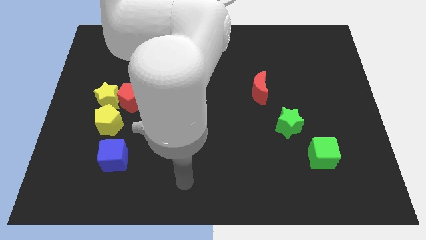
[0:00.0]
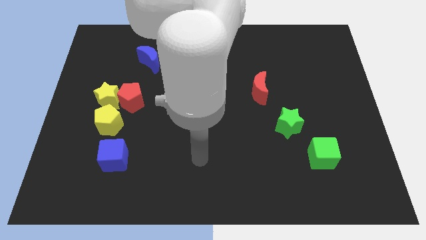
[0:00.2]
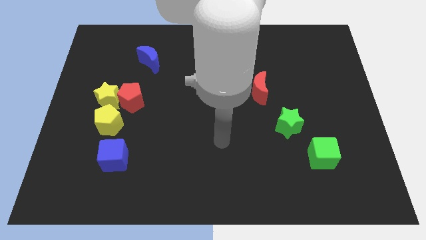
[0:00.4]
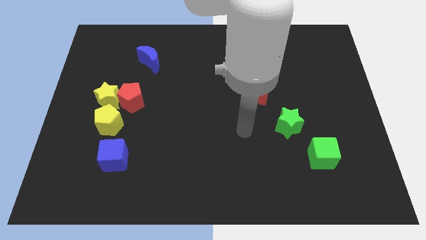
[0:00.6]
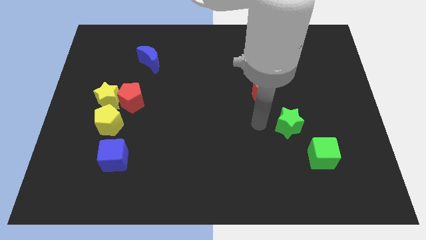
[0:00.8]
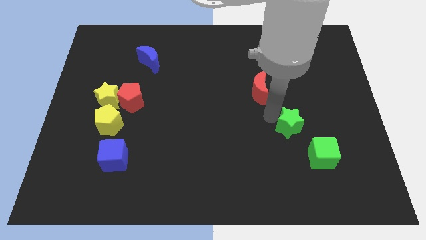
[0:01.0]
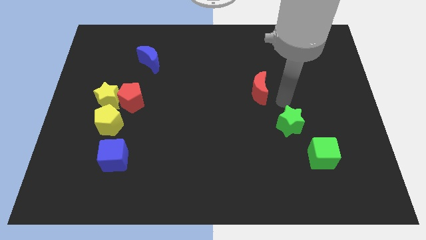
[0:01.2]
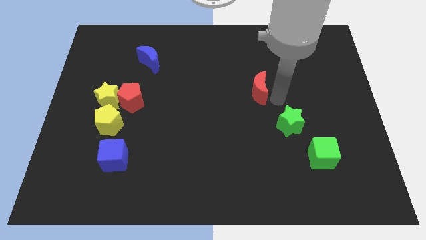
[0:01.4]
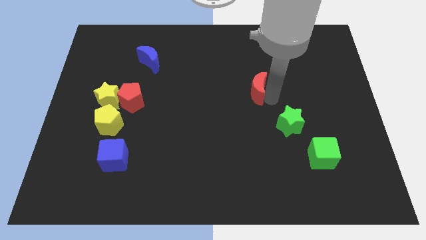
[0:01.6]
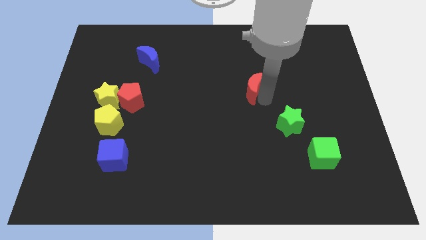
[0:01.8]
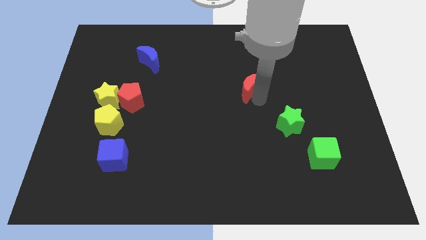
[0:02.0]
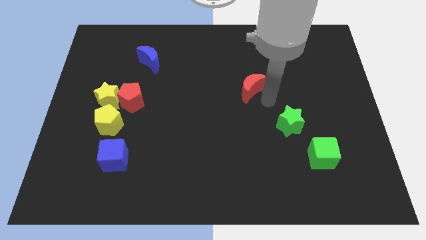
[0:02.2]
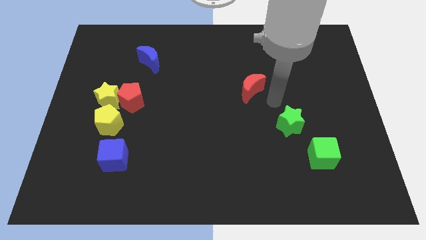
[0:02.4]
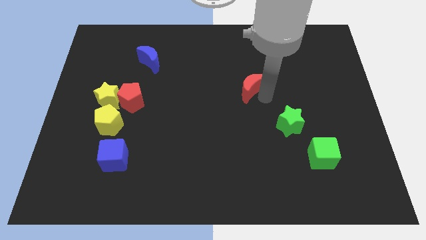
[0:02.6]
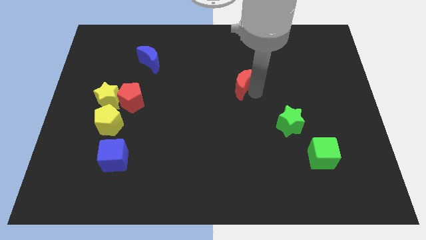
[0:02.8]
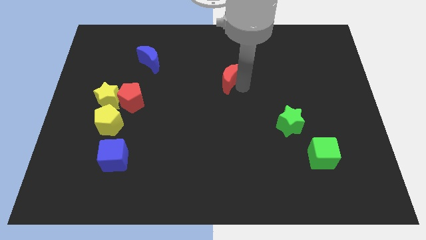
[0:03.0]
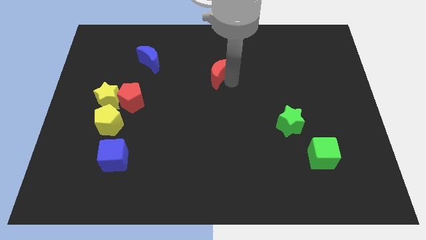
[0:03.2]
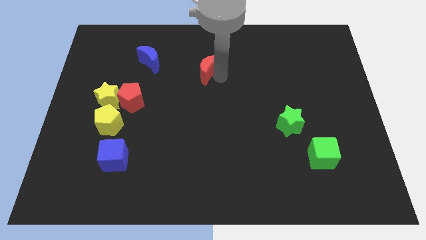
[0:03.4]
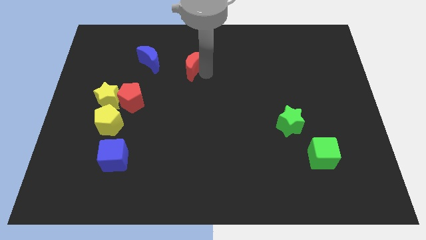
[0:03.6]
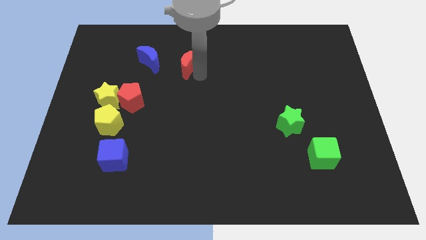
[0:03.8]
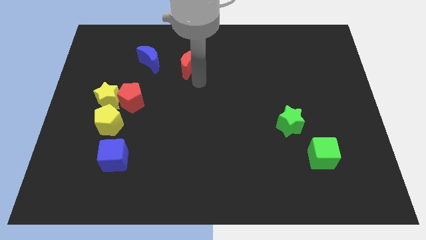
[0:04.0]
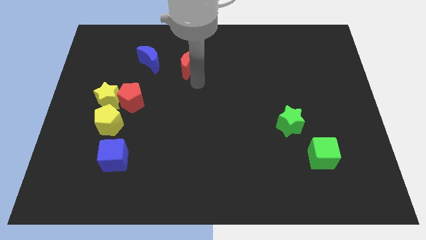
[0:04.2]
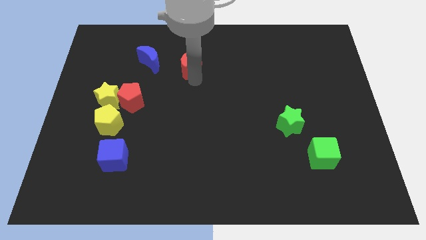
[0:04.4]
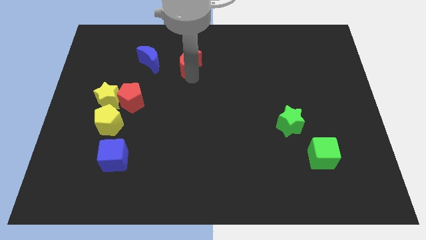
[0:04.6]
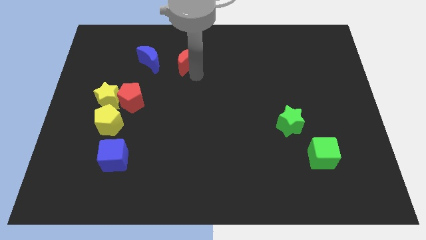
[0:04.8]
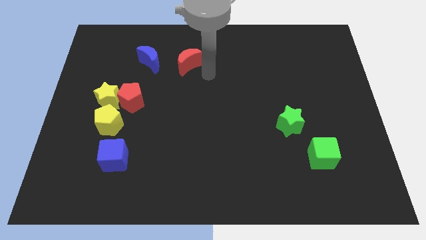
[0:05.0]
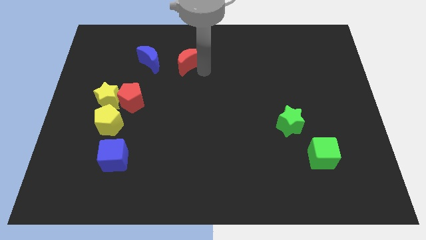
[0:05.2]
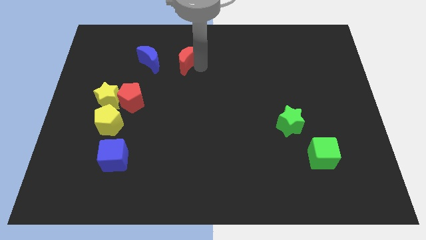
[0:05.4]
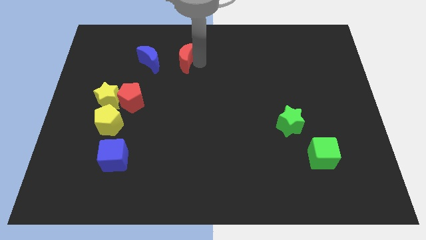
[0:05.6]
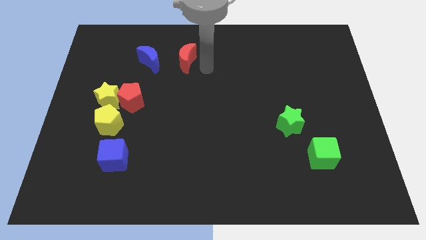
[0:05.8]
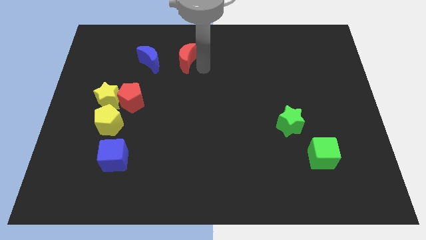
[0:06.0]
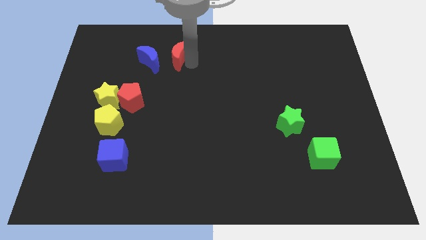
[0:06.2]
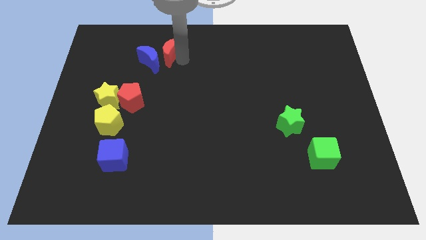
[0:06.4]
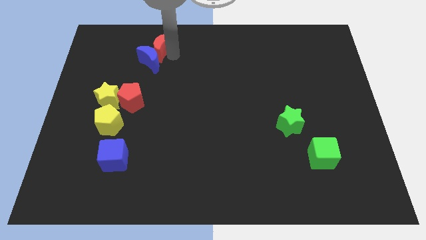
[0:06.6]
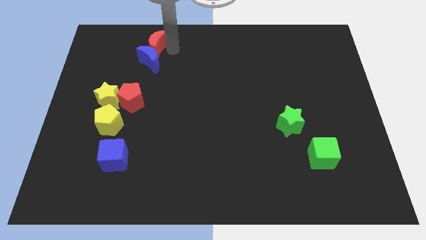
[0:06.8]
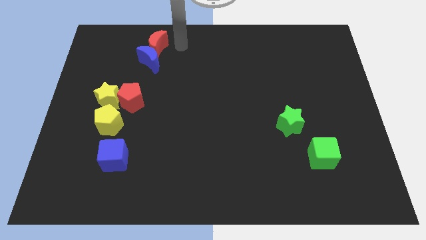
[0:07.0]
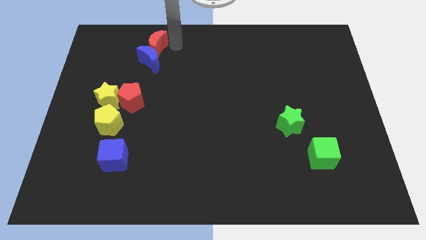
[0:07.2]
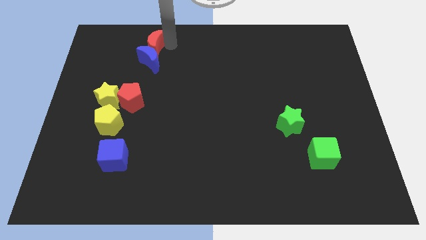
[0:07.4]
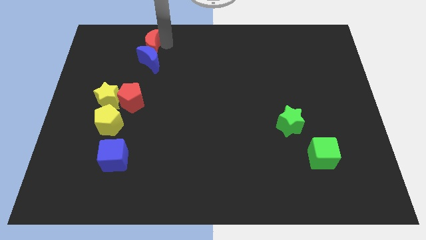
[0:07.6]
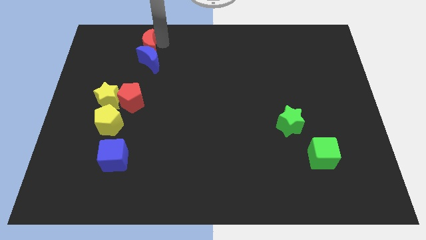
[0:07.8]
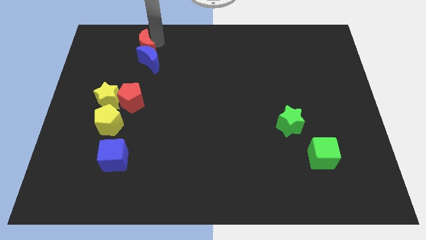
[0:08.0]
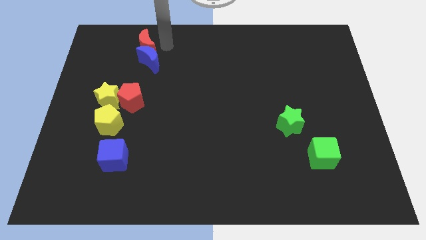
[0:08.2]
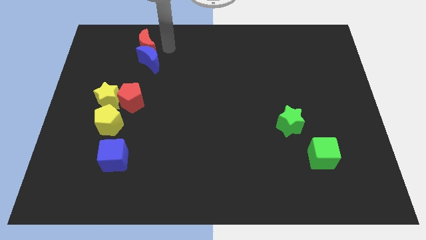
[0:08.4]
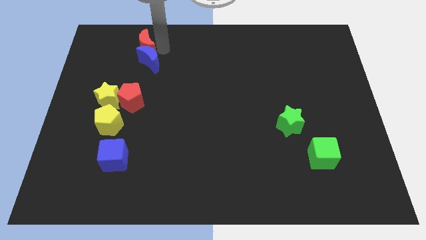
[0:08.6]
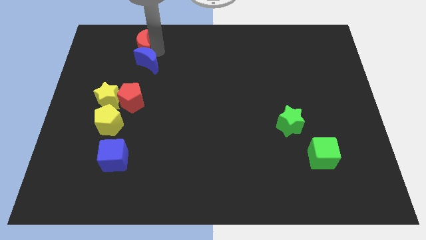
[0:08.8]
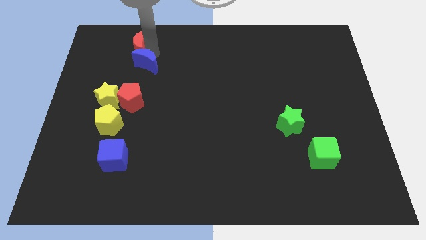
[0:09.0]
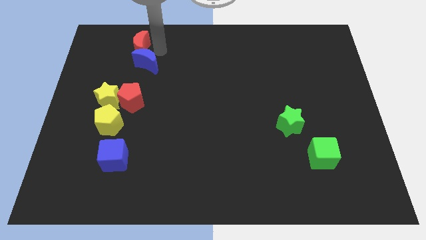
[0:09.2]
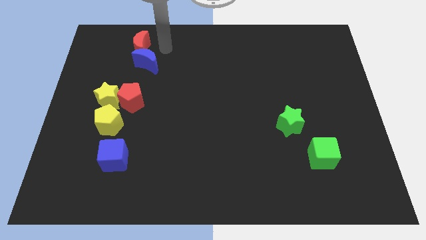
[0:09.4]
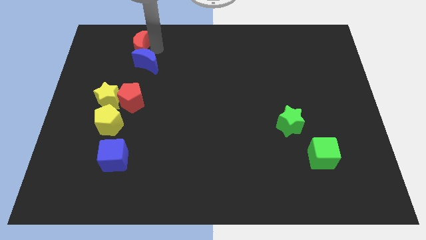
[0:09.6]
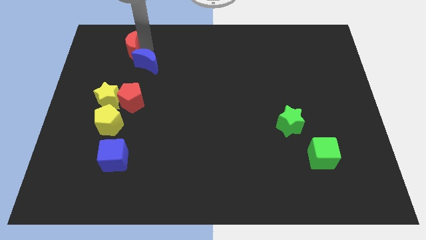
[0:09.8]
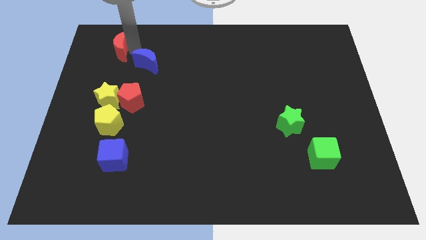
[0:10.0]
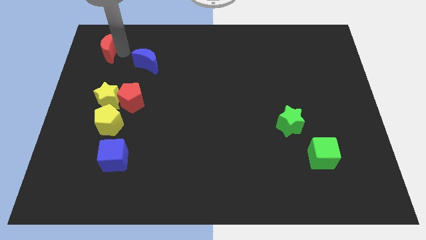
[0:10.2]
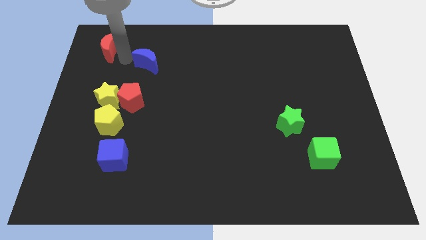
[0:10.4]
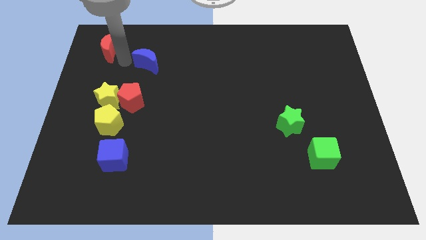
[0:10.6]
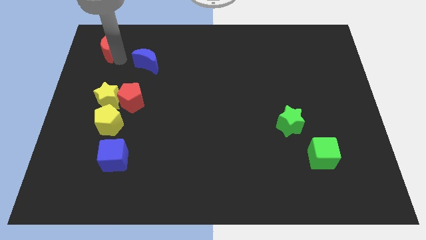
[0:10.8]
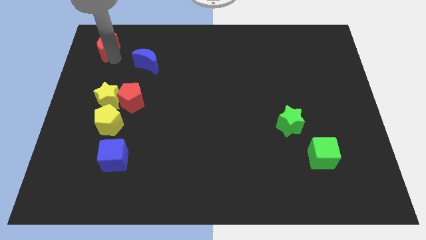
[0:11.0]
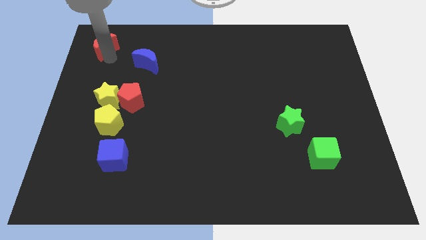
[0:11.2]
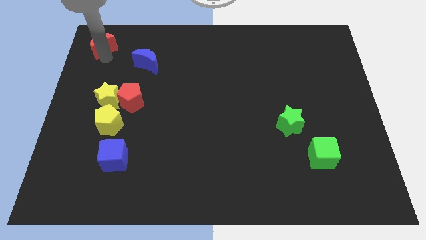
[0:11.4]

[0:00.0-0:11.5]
move the red moon to the top left

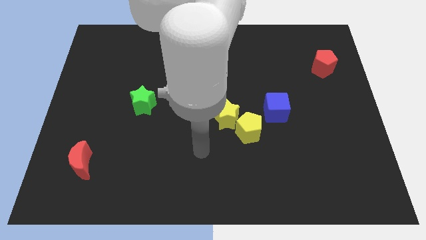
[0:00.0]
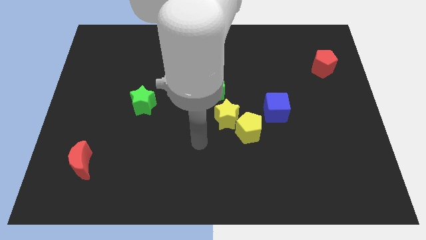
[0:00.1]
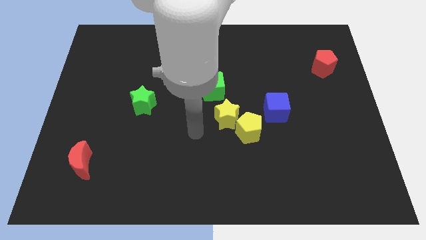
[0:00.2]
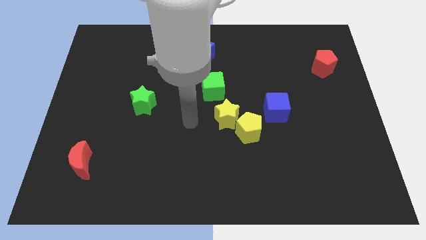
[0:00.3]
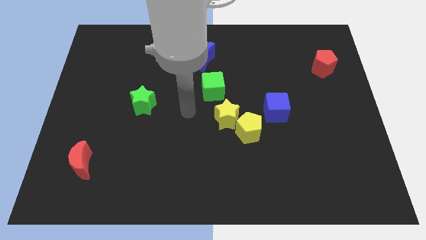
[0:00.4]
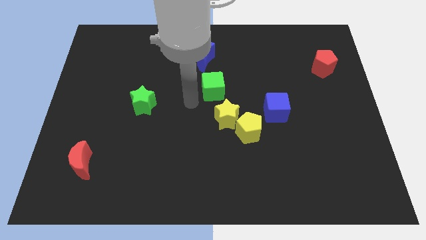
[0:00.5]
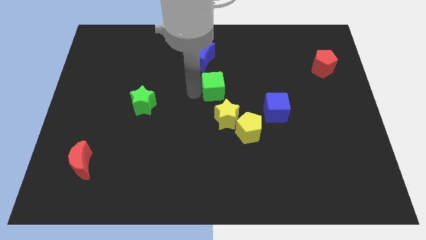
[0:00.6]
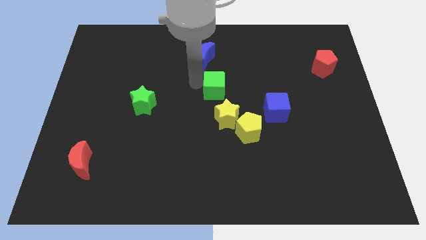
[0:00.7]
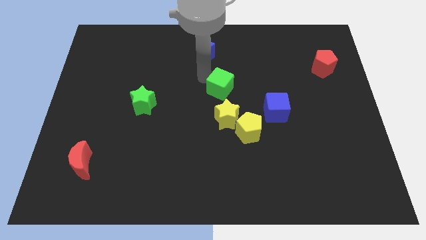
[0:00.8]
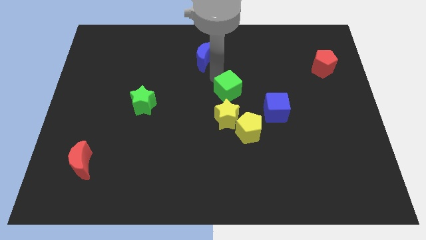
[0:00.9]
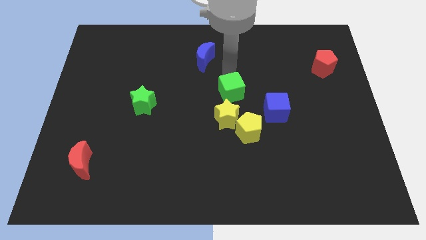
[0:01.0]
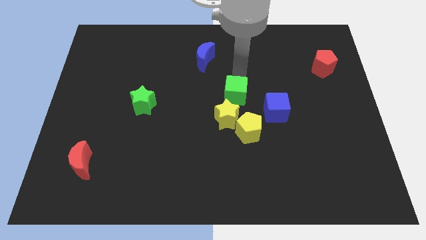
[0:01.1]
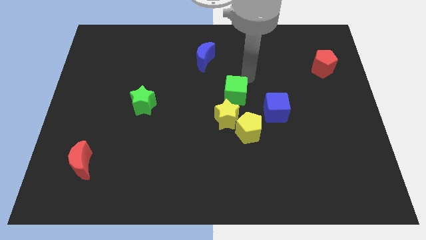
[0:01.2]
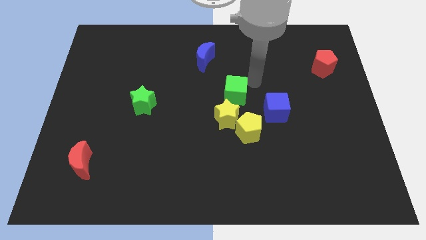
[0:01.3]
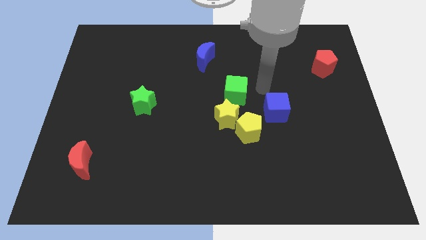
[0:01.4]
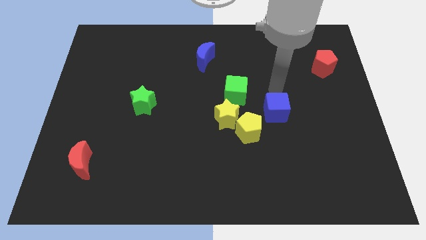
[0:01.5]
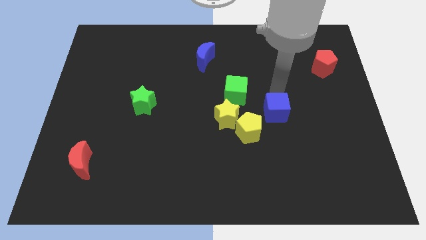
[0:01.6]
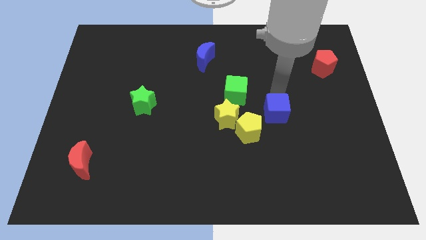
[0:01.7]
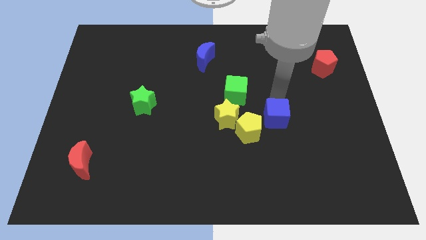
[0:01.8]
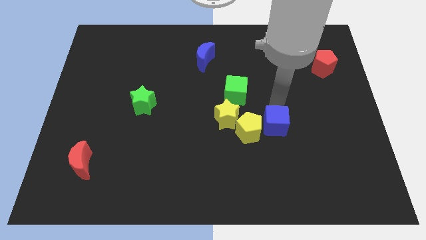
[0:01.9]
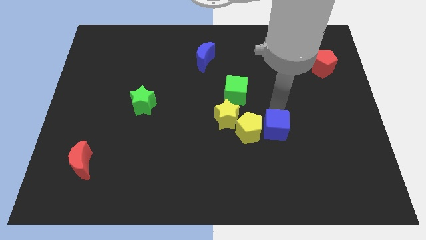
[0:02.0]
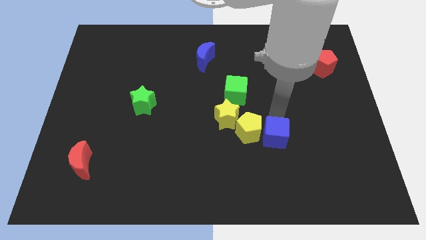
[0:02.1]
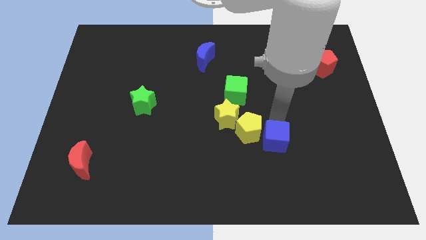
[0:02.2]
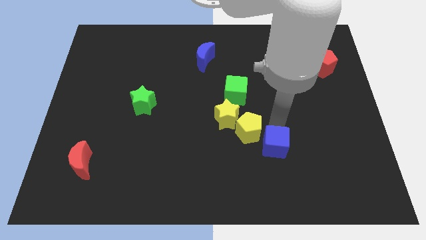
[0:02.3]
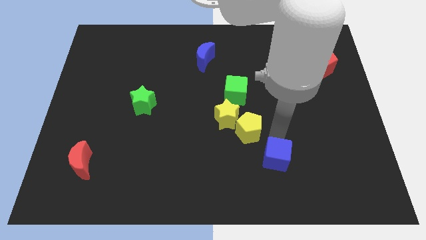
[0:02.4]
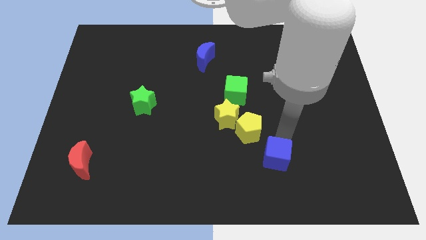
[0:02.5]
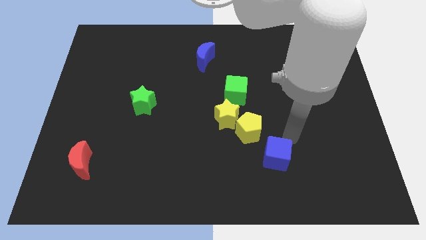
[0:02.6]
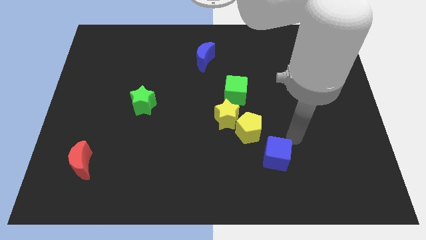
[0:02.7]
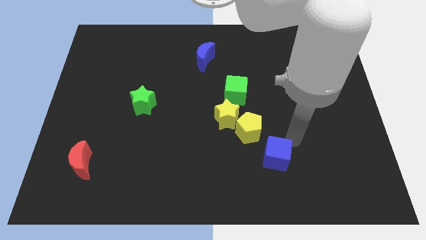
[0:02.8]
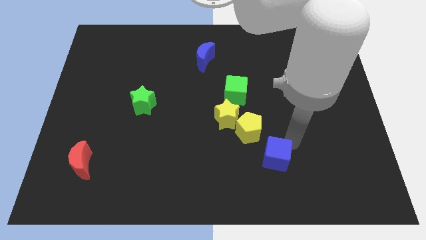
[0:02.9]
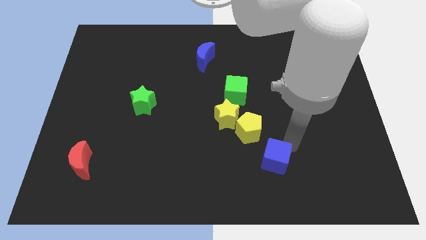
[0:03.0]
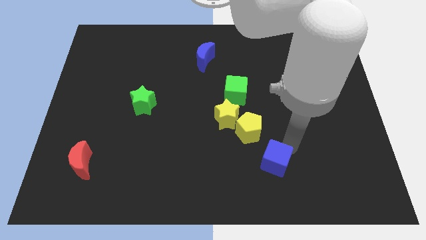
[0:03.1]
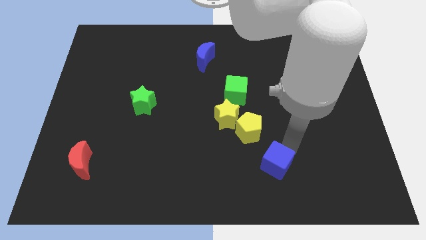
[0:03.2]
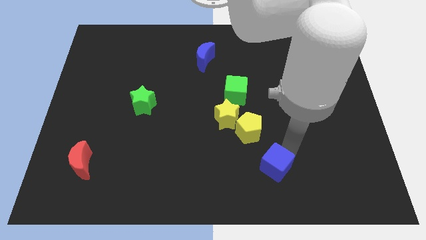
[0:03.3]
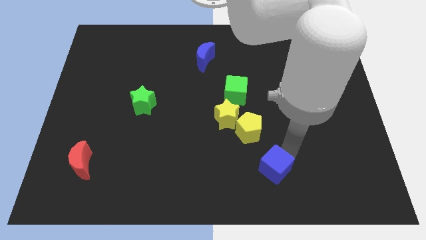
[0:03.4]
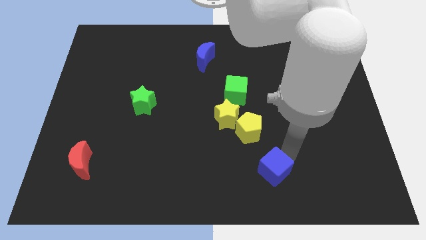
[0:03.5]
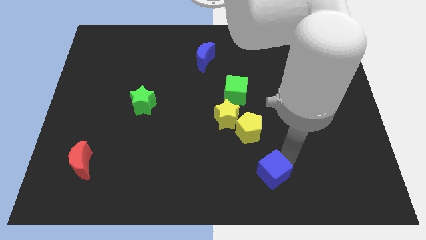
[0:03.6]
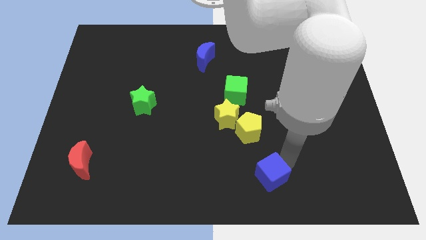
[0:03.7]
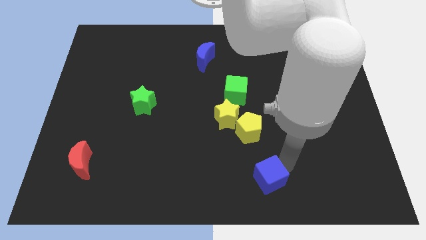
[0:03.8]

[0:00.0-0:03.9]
put the blue cube to the bottom side
